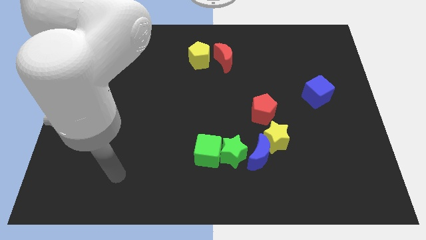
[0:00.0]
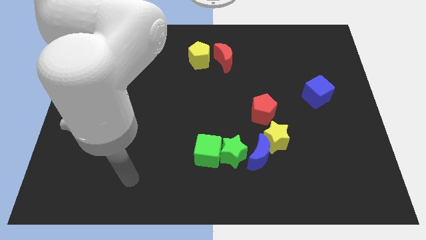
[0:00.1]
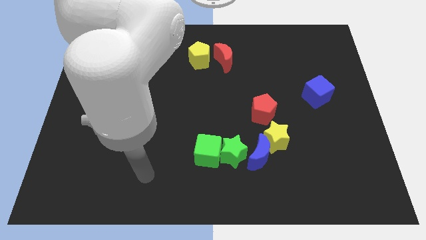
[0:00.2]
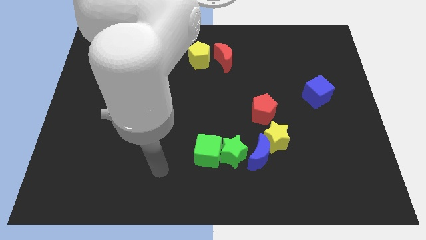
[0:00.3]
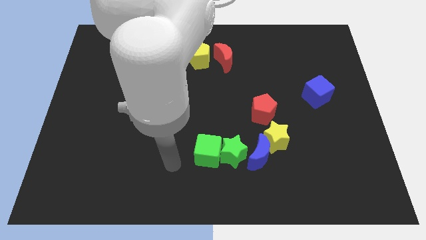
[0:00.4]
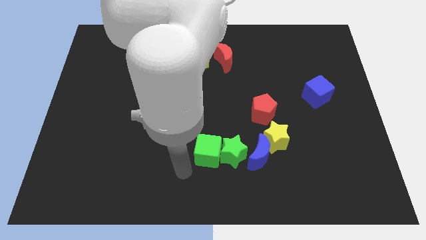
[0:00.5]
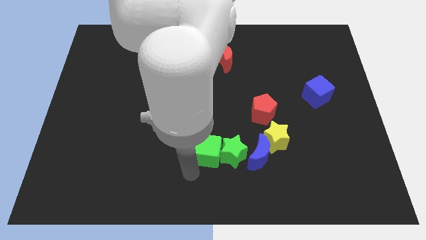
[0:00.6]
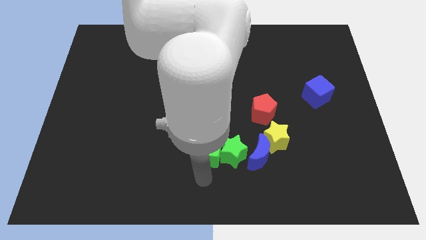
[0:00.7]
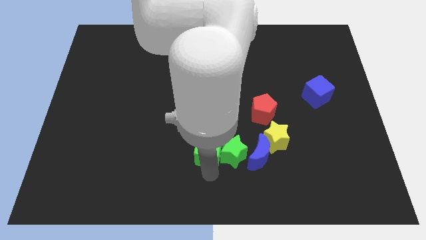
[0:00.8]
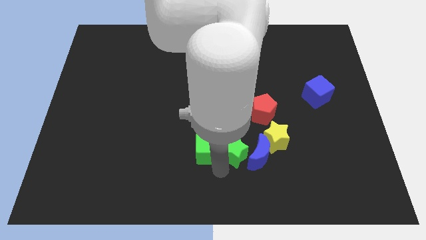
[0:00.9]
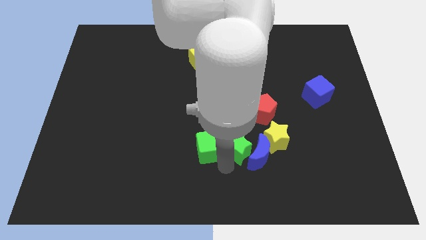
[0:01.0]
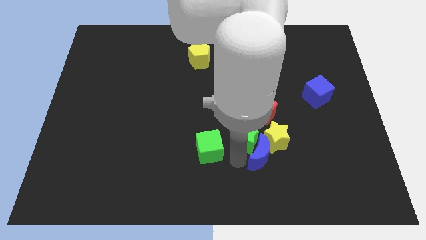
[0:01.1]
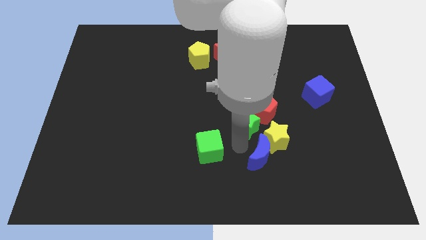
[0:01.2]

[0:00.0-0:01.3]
pull the green cube apart from the green star

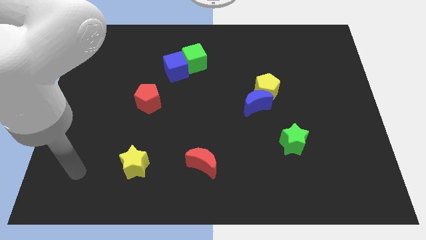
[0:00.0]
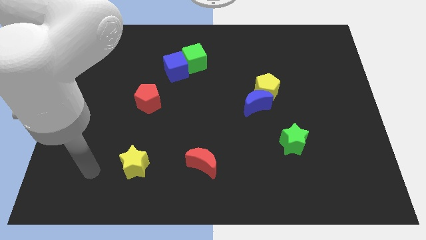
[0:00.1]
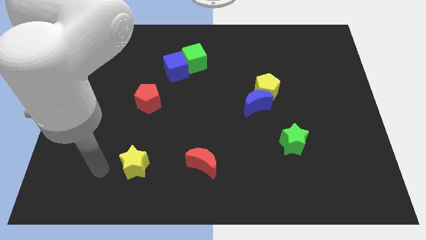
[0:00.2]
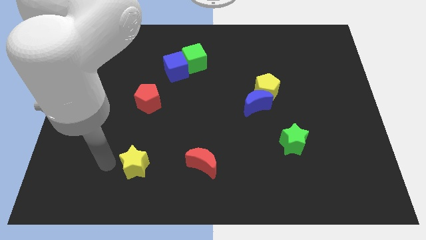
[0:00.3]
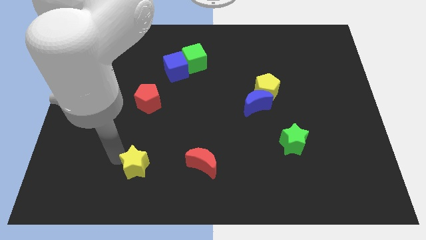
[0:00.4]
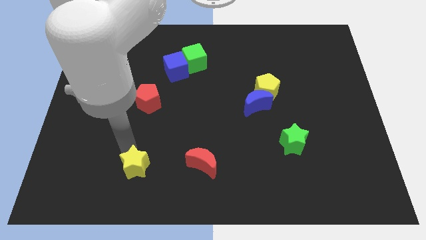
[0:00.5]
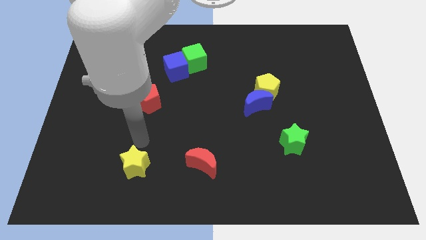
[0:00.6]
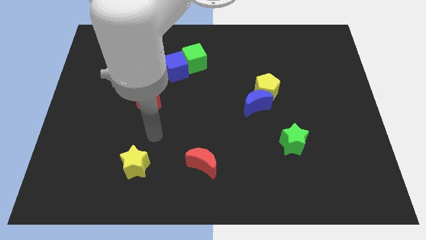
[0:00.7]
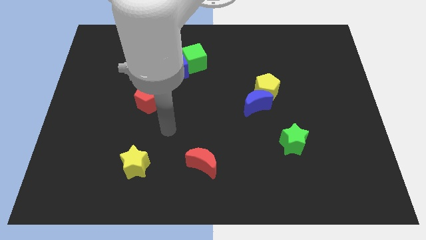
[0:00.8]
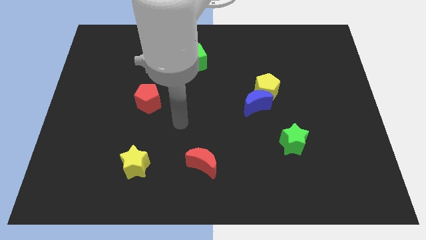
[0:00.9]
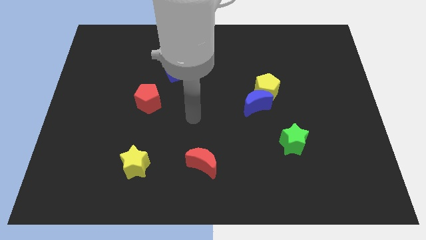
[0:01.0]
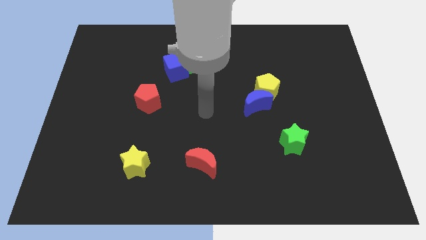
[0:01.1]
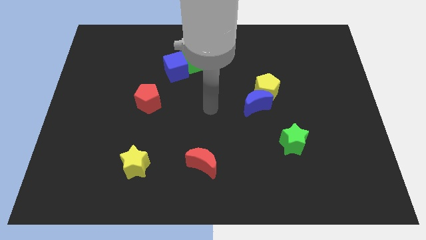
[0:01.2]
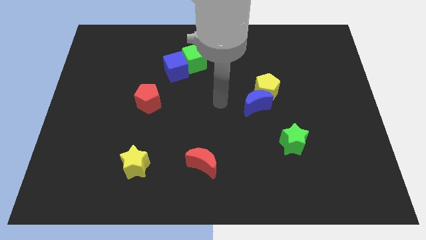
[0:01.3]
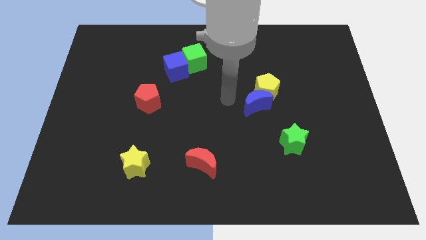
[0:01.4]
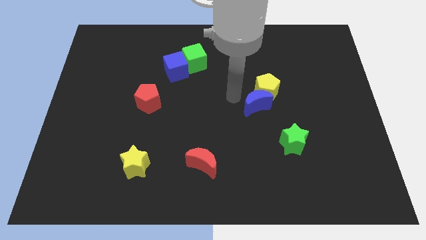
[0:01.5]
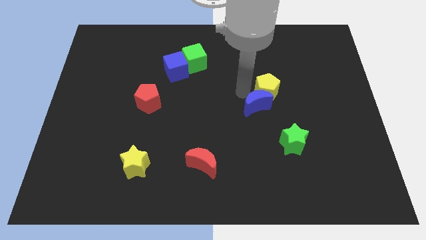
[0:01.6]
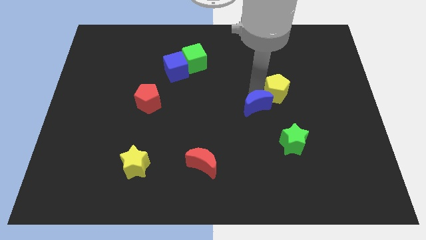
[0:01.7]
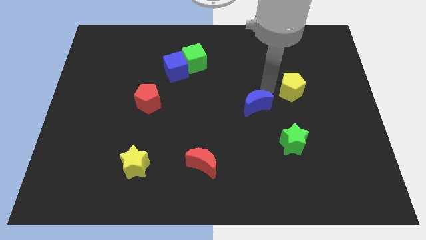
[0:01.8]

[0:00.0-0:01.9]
separate the blue moon from the yellow pentagon

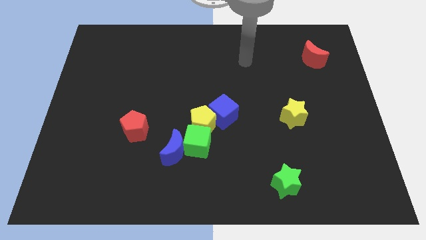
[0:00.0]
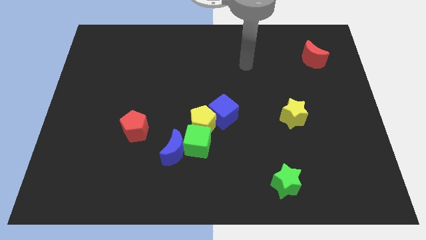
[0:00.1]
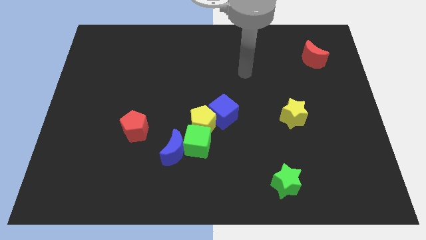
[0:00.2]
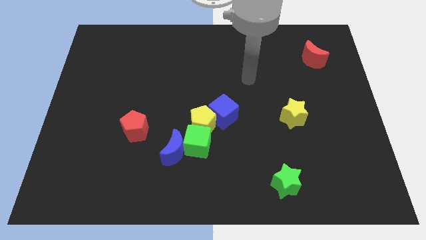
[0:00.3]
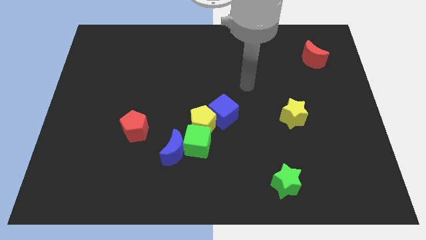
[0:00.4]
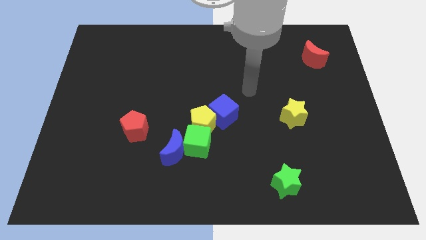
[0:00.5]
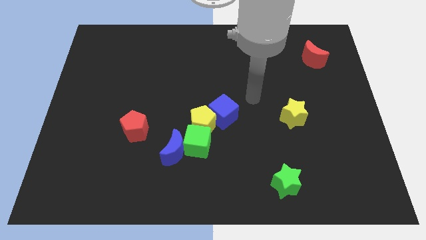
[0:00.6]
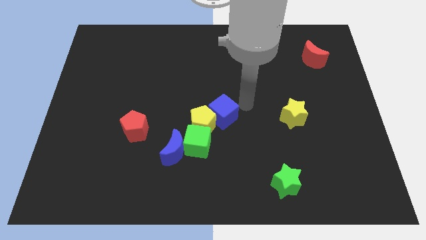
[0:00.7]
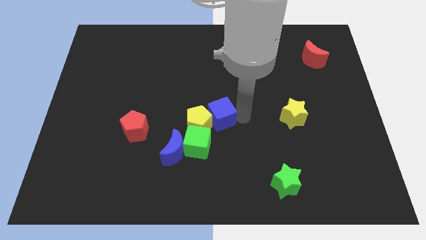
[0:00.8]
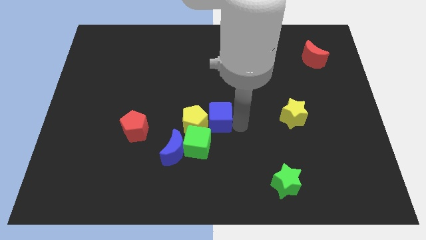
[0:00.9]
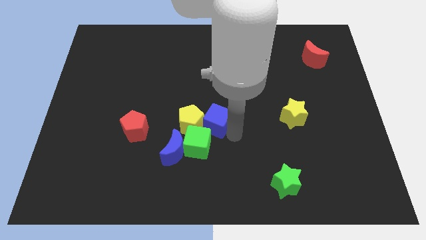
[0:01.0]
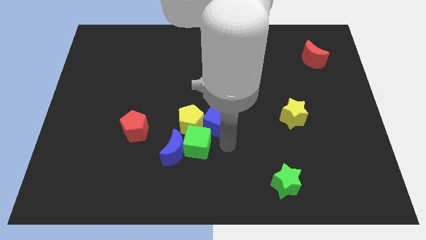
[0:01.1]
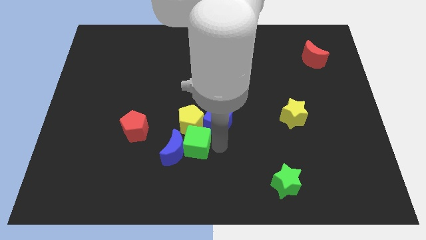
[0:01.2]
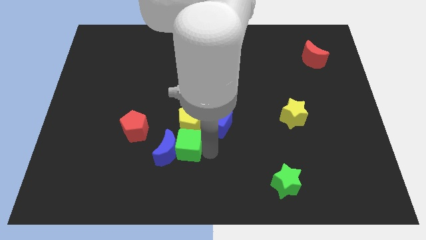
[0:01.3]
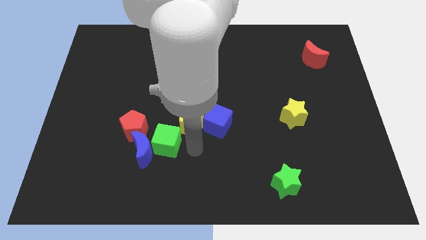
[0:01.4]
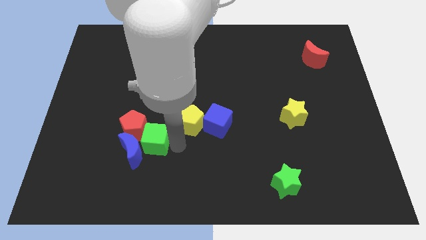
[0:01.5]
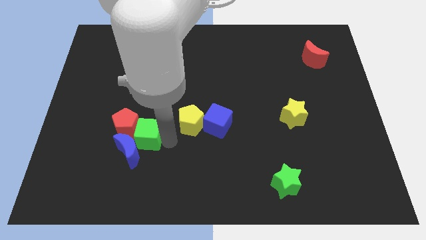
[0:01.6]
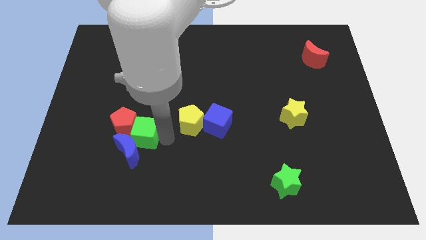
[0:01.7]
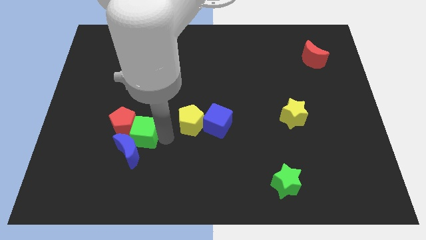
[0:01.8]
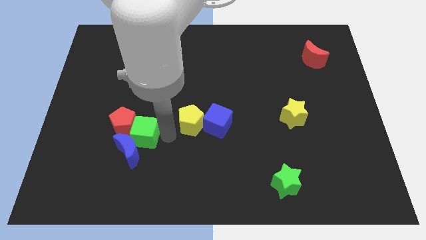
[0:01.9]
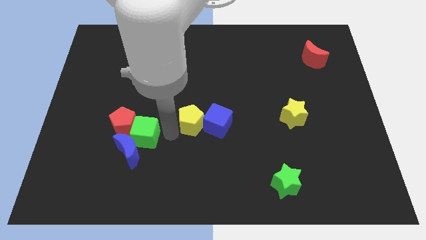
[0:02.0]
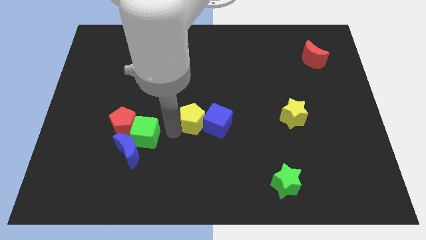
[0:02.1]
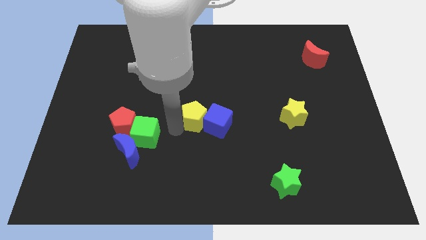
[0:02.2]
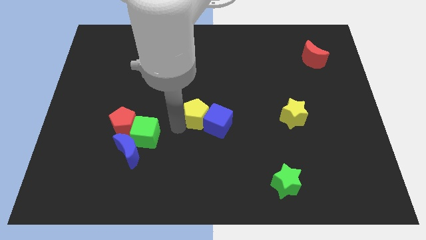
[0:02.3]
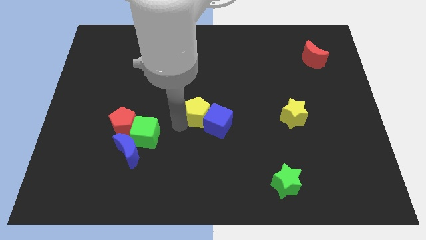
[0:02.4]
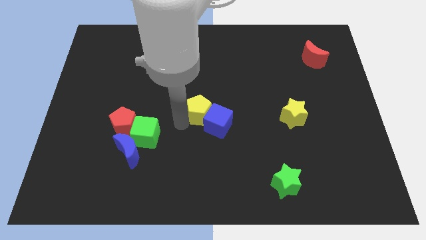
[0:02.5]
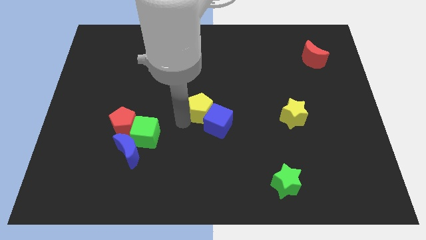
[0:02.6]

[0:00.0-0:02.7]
separate the yellow pentagon from the green cube, blue cube, and blue moon

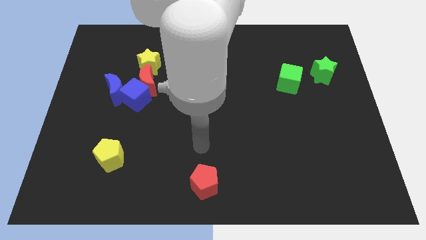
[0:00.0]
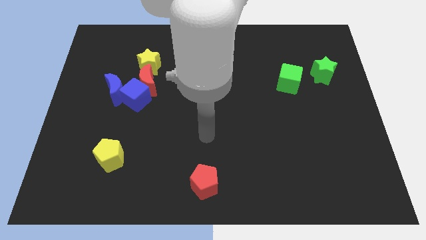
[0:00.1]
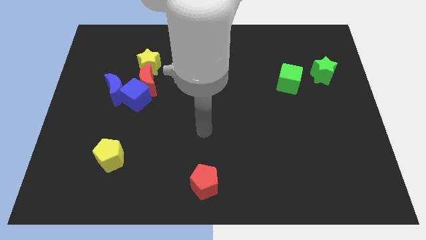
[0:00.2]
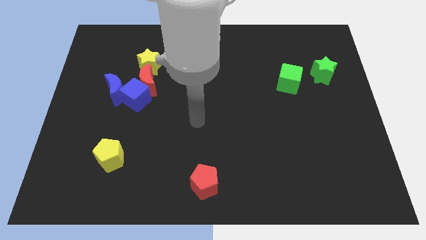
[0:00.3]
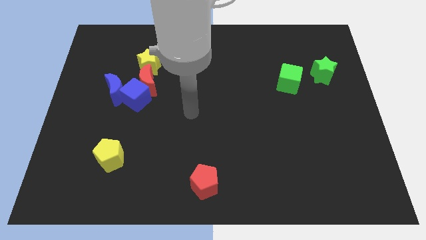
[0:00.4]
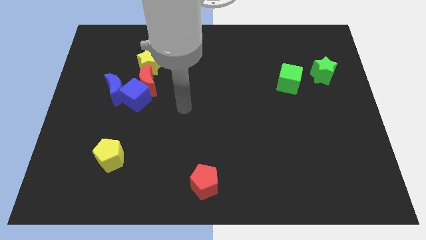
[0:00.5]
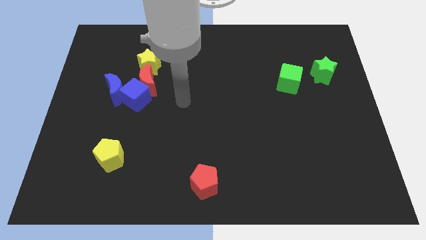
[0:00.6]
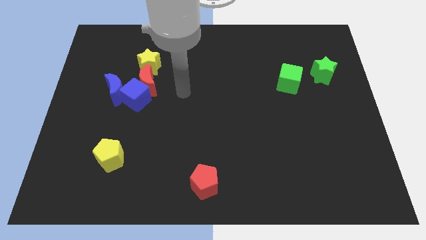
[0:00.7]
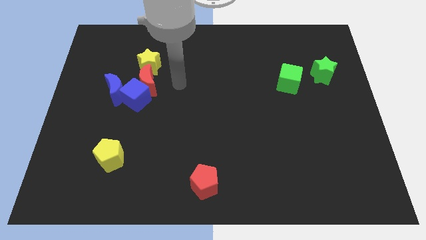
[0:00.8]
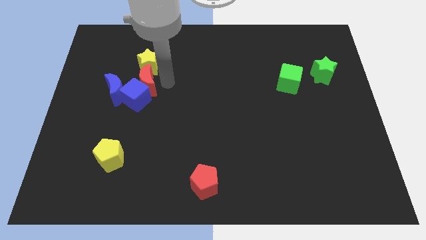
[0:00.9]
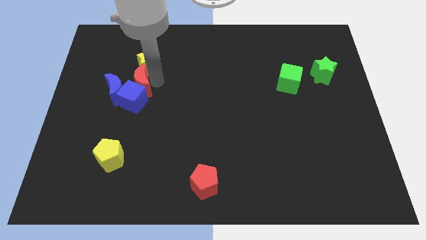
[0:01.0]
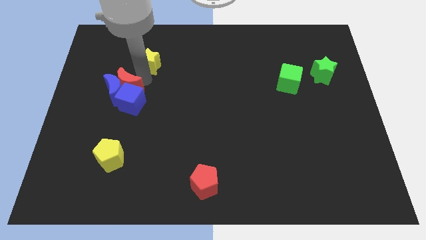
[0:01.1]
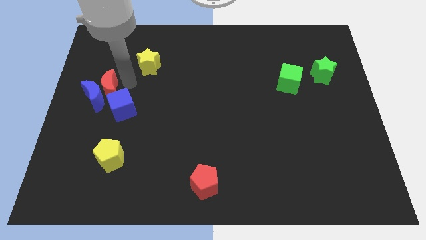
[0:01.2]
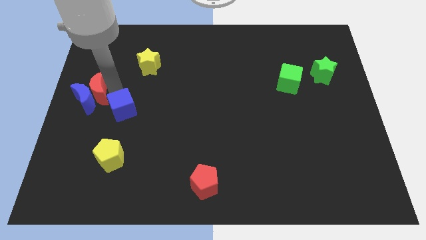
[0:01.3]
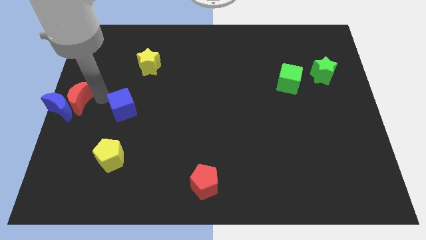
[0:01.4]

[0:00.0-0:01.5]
separate the blue cube from the red moon and blue moon

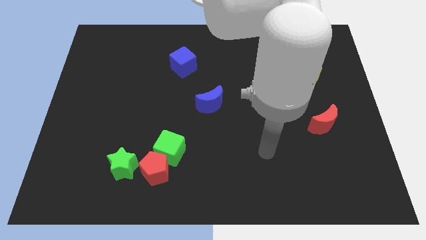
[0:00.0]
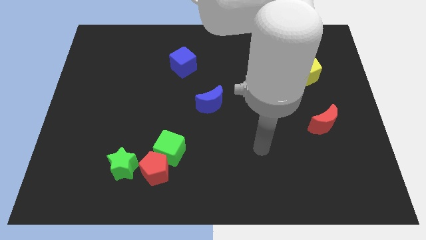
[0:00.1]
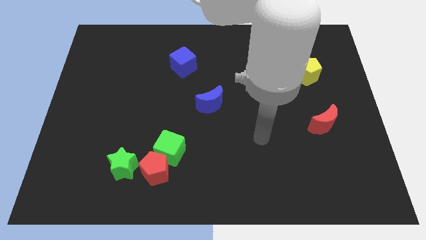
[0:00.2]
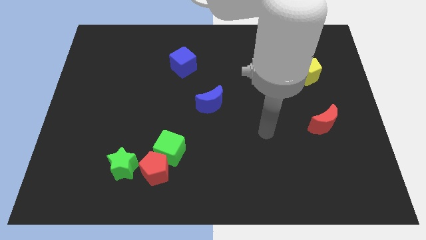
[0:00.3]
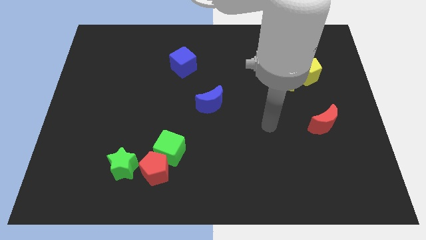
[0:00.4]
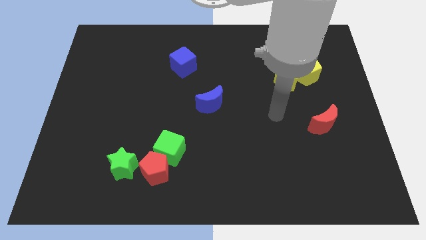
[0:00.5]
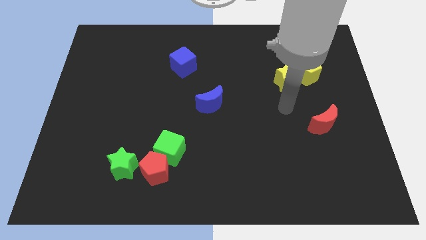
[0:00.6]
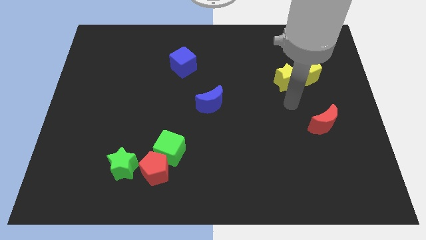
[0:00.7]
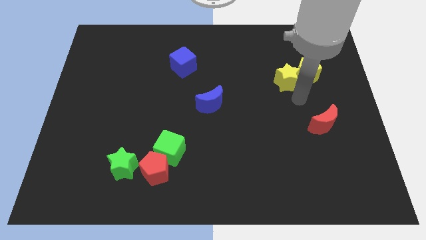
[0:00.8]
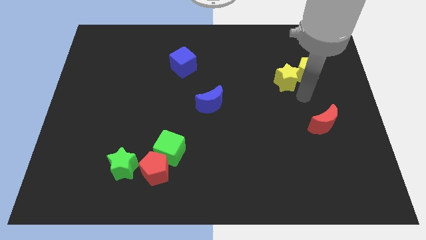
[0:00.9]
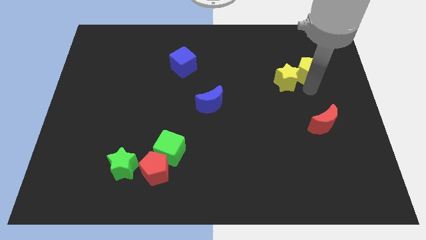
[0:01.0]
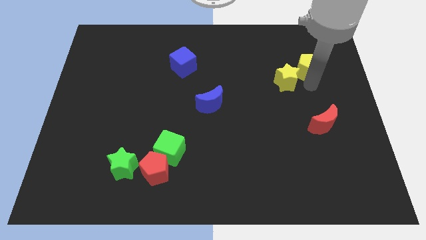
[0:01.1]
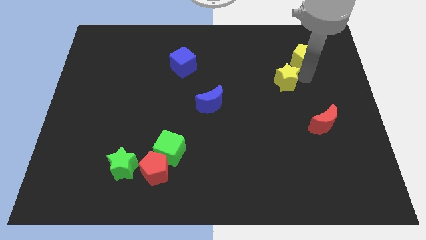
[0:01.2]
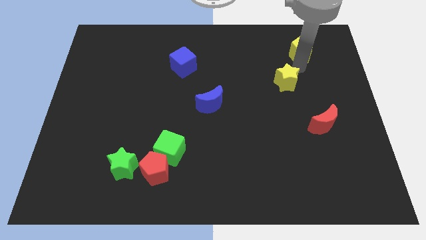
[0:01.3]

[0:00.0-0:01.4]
separate the yellow star from the yellow pentagon

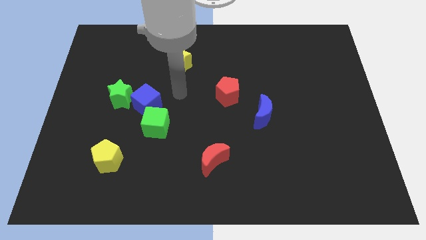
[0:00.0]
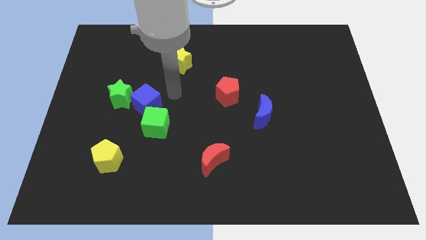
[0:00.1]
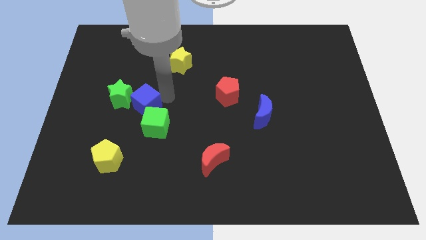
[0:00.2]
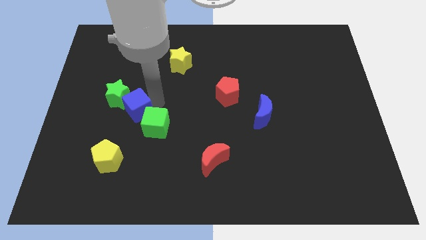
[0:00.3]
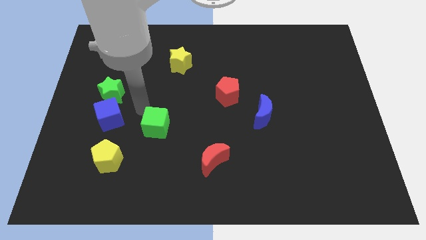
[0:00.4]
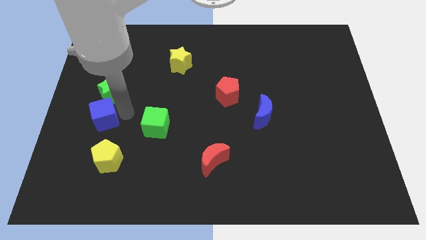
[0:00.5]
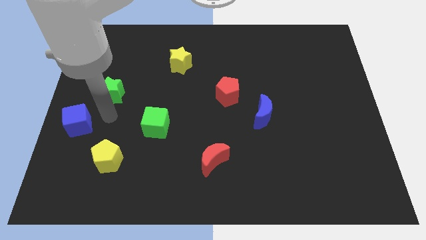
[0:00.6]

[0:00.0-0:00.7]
separate the green star from the blue cube
